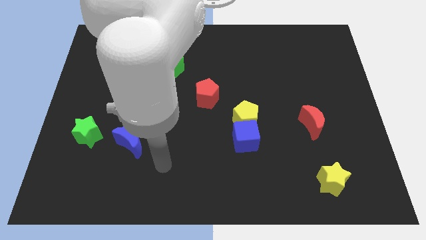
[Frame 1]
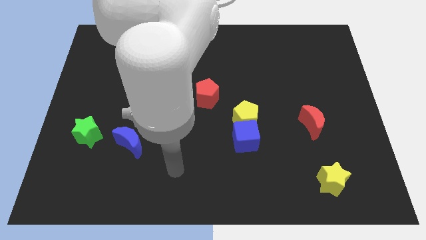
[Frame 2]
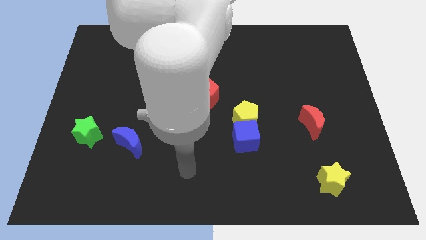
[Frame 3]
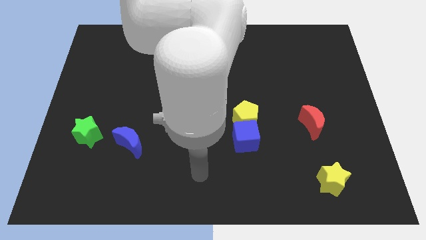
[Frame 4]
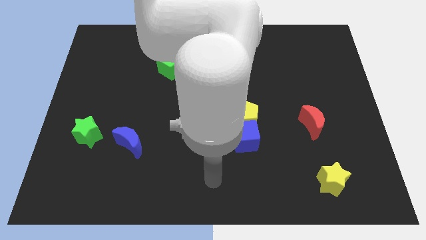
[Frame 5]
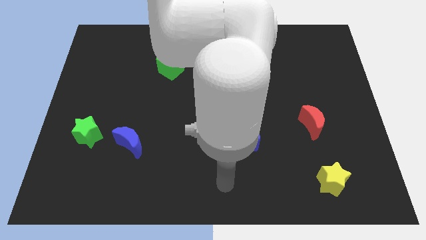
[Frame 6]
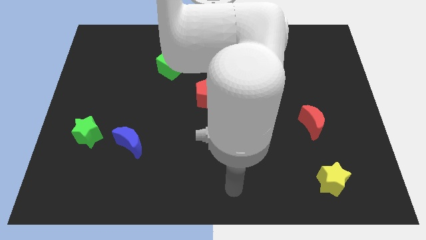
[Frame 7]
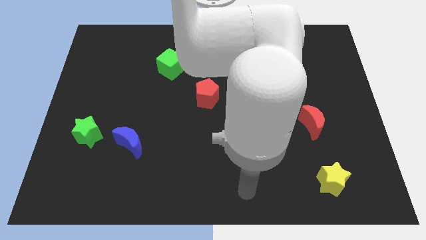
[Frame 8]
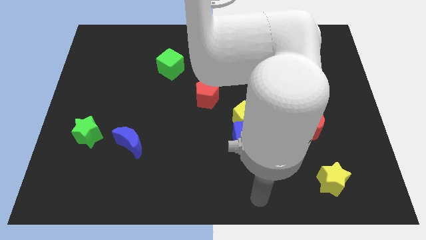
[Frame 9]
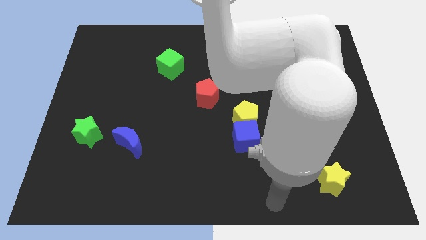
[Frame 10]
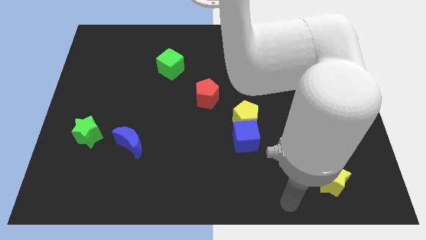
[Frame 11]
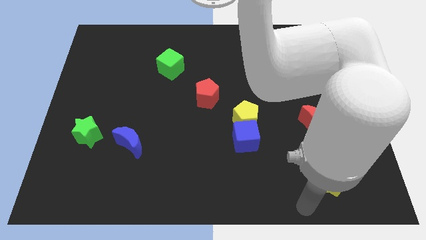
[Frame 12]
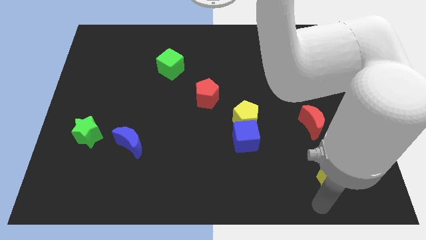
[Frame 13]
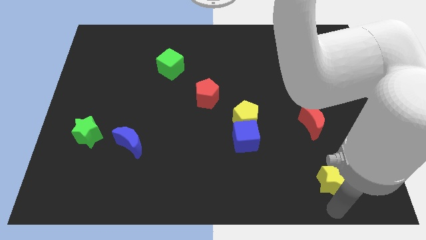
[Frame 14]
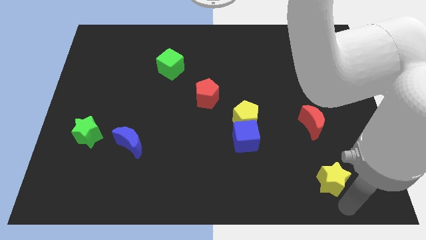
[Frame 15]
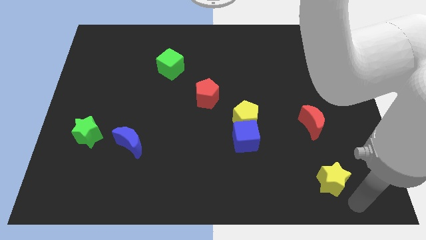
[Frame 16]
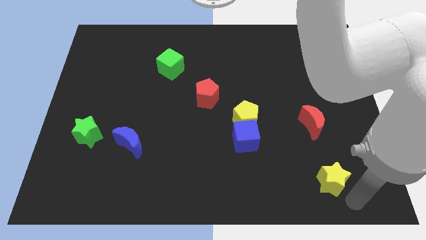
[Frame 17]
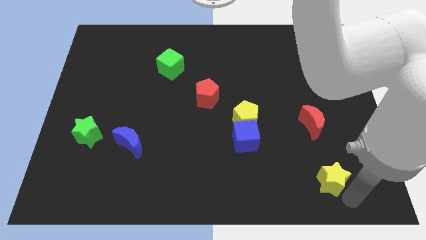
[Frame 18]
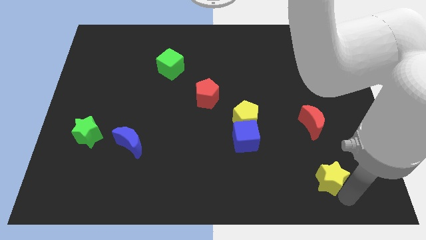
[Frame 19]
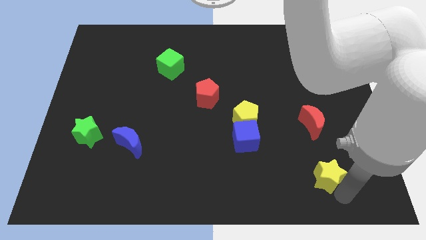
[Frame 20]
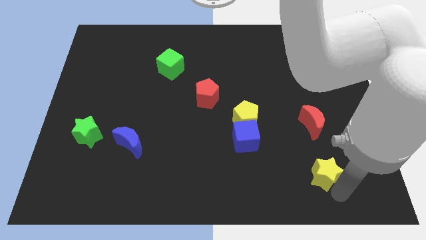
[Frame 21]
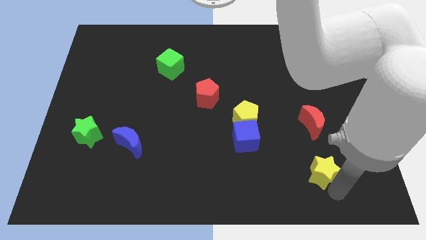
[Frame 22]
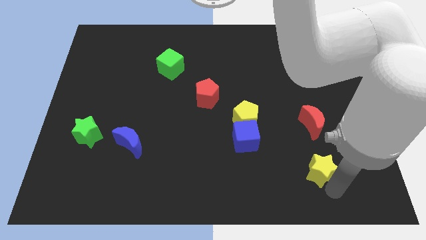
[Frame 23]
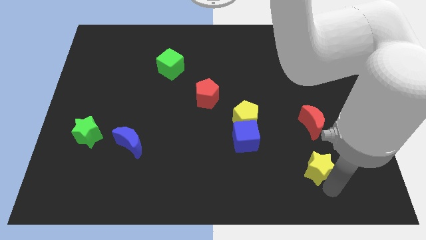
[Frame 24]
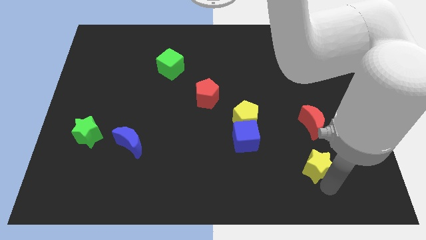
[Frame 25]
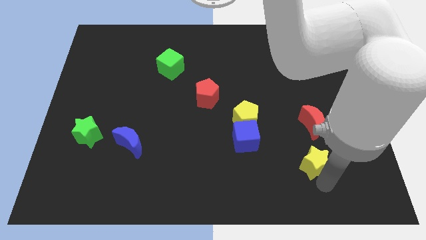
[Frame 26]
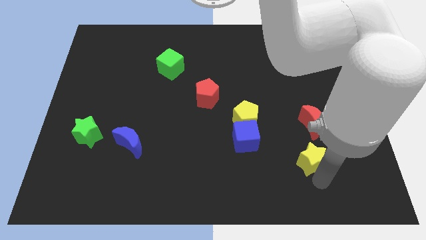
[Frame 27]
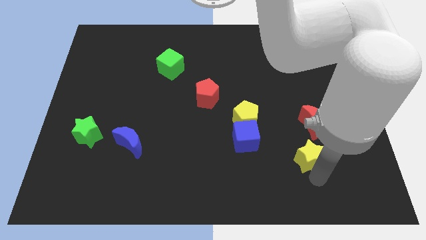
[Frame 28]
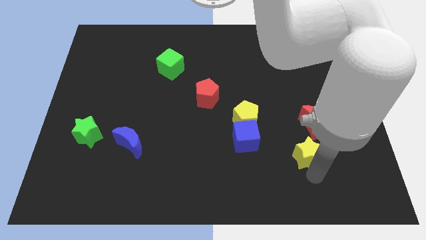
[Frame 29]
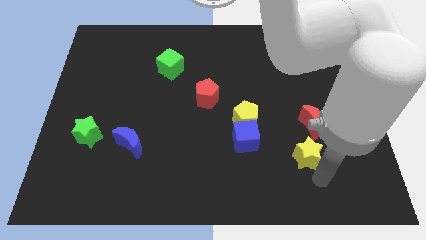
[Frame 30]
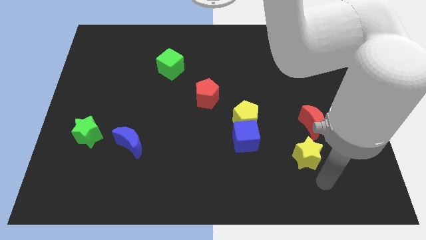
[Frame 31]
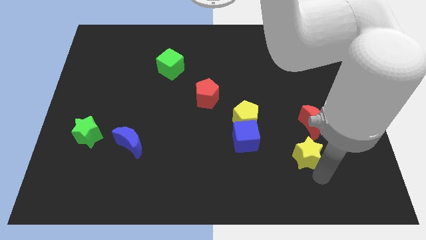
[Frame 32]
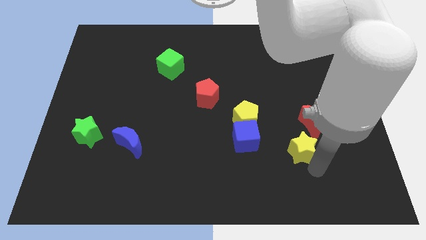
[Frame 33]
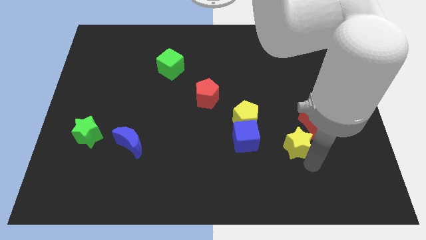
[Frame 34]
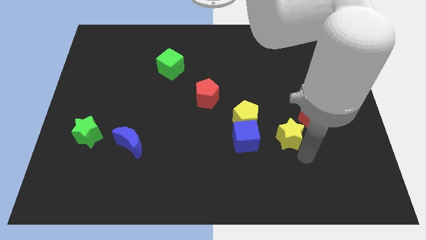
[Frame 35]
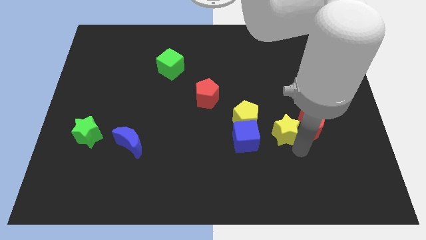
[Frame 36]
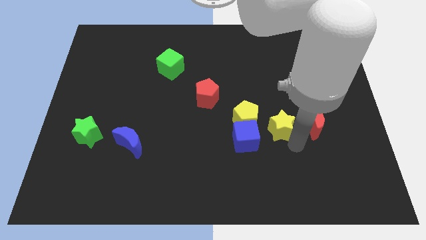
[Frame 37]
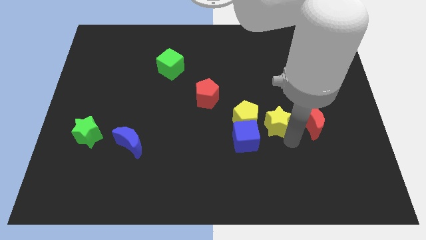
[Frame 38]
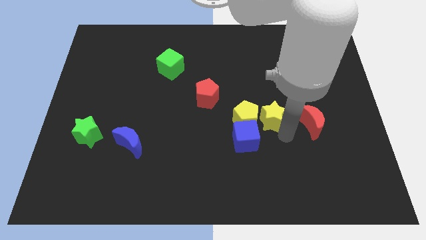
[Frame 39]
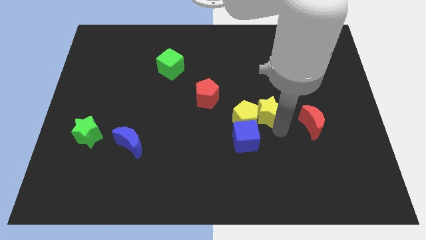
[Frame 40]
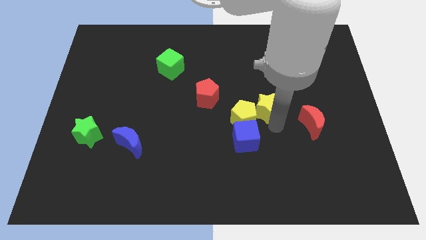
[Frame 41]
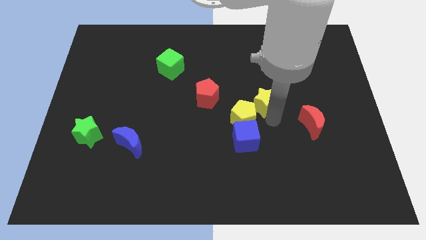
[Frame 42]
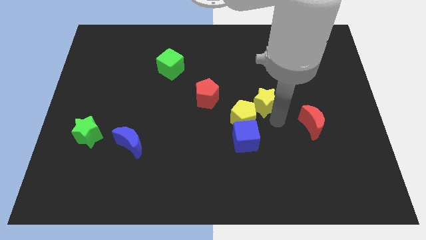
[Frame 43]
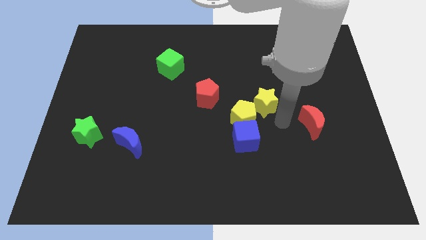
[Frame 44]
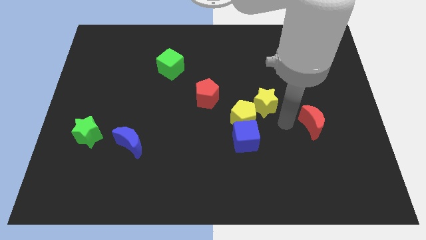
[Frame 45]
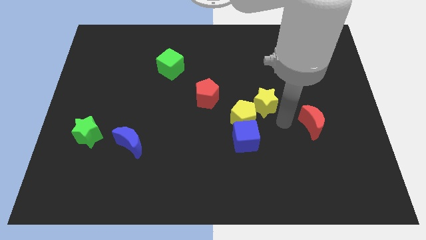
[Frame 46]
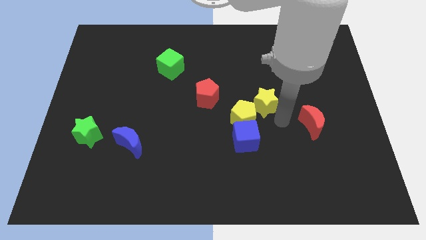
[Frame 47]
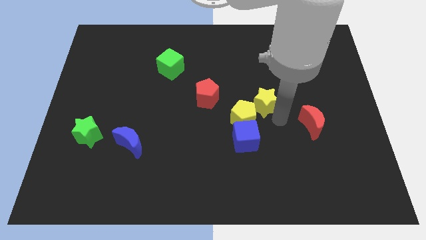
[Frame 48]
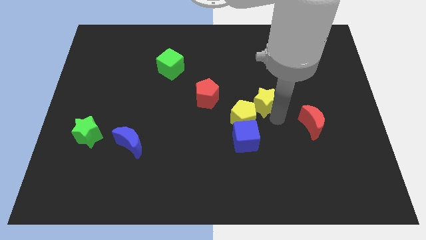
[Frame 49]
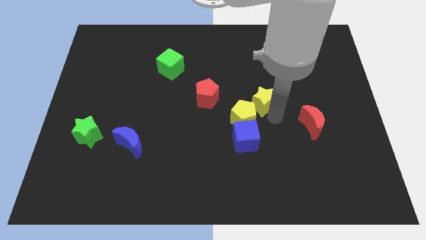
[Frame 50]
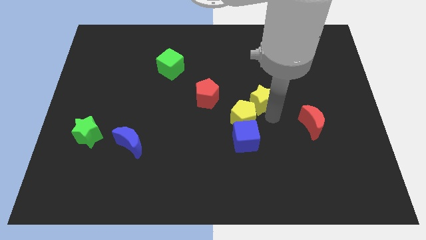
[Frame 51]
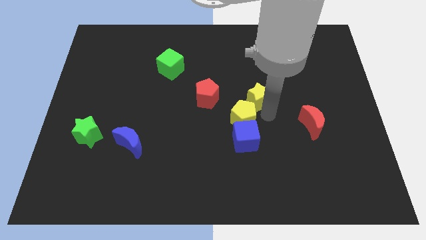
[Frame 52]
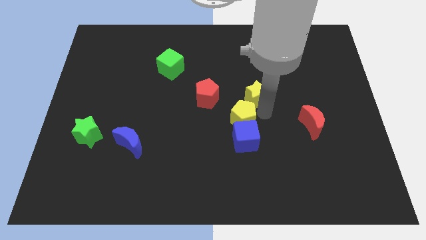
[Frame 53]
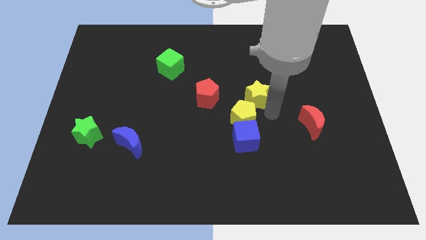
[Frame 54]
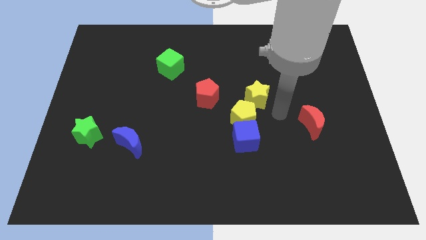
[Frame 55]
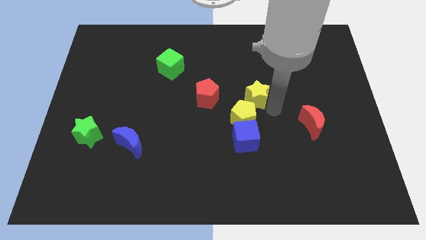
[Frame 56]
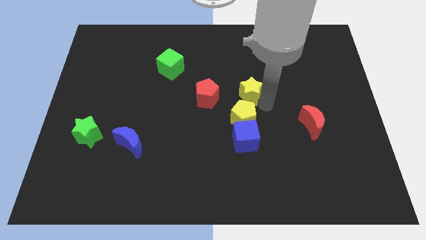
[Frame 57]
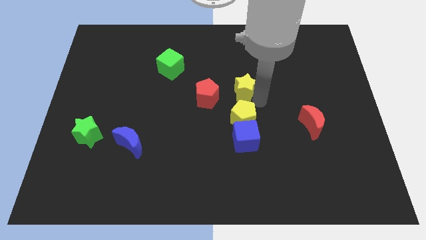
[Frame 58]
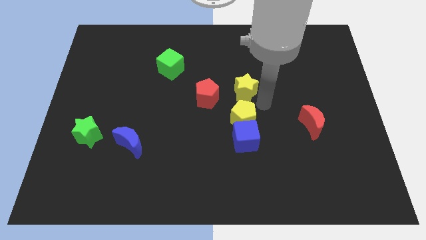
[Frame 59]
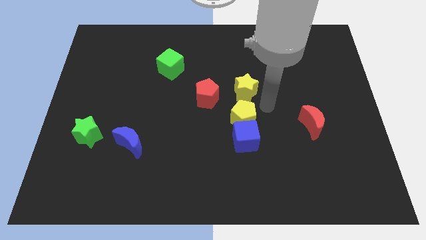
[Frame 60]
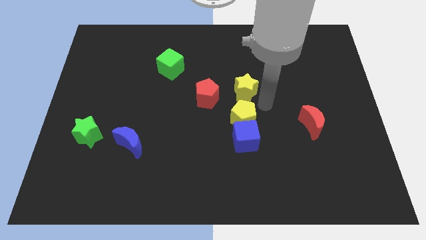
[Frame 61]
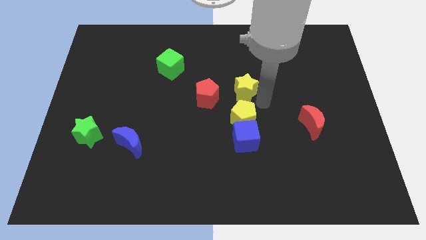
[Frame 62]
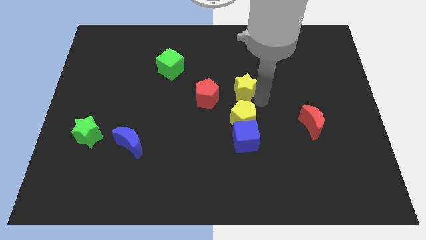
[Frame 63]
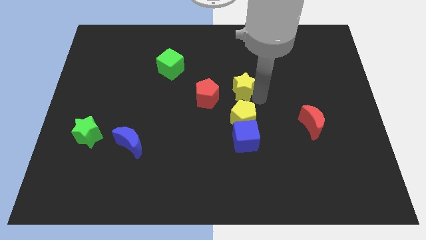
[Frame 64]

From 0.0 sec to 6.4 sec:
slide the yellow star diagonally up and to the right of the red pentagon
